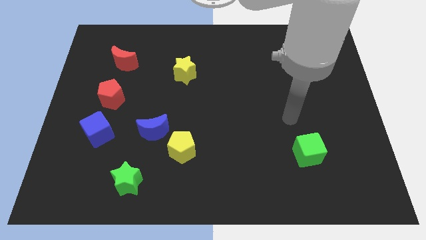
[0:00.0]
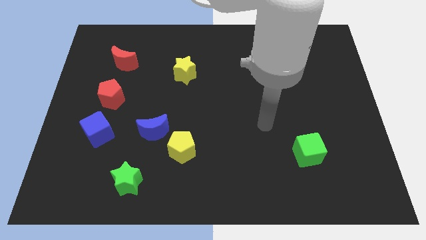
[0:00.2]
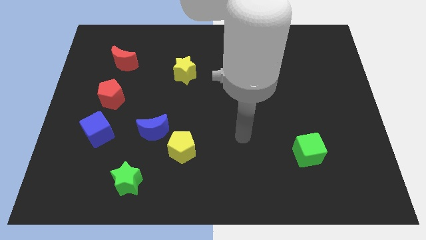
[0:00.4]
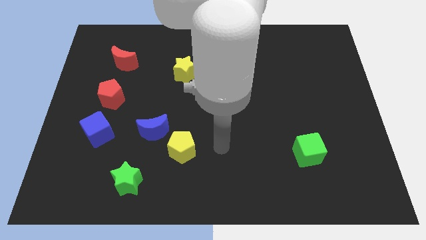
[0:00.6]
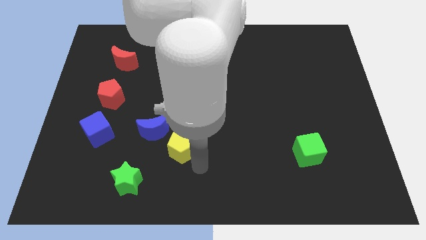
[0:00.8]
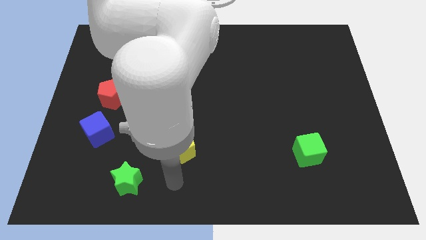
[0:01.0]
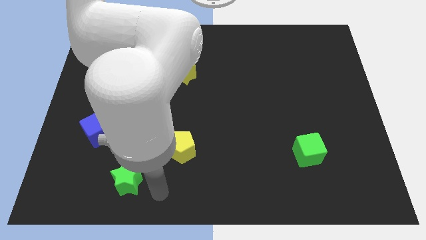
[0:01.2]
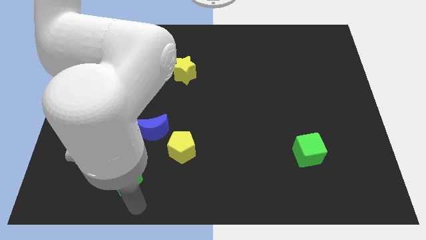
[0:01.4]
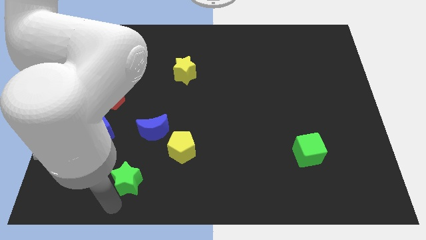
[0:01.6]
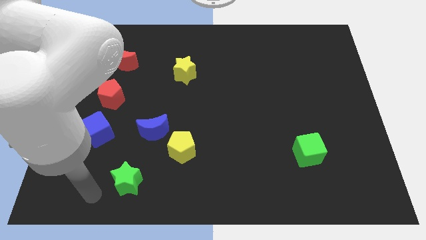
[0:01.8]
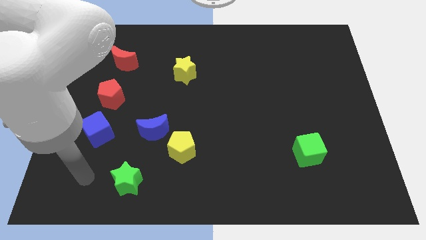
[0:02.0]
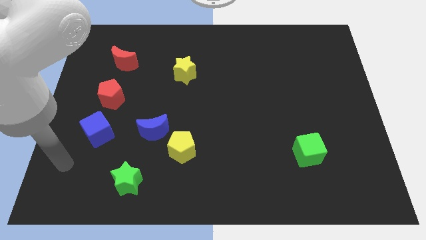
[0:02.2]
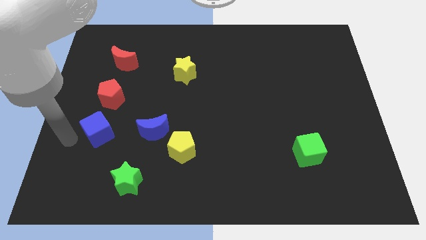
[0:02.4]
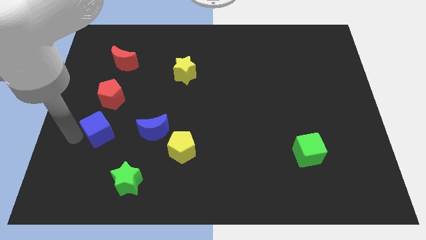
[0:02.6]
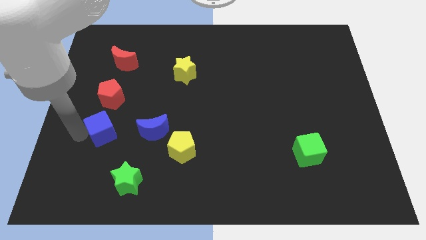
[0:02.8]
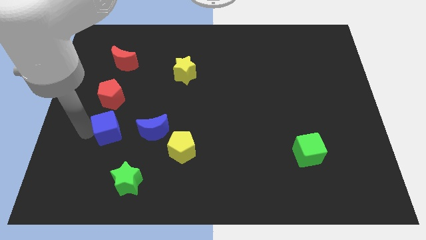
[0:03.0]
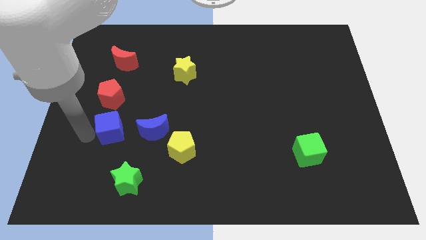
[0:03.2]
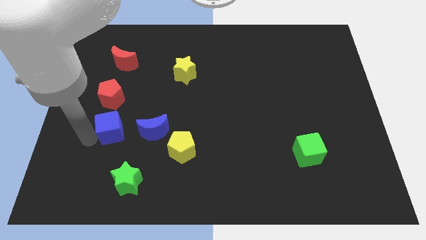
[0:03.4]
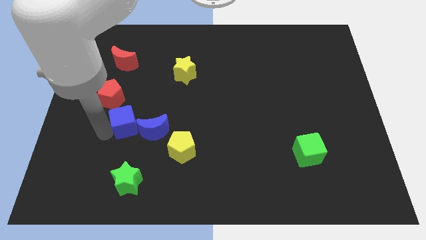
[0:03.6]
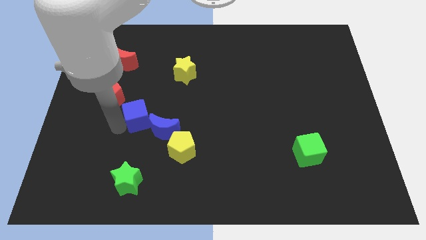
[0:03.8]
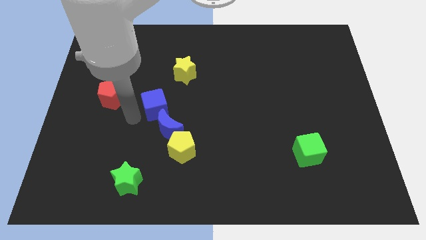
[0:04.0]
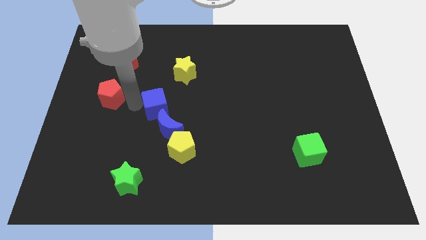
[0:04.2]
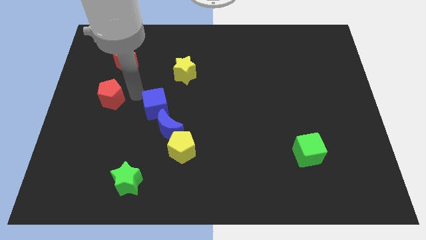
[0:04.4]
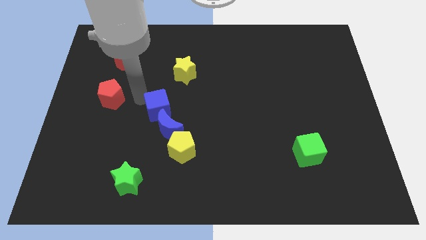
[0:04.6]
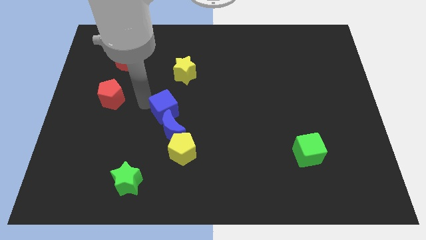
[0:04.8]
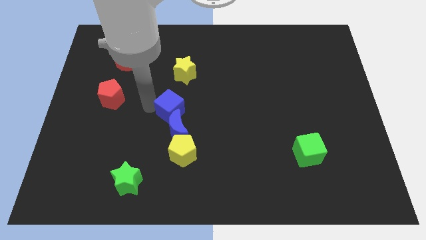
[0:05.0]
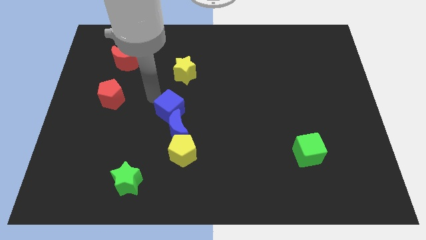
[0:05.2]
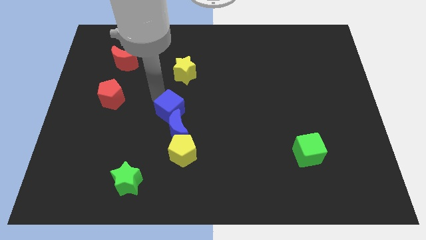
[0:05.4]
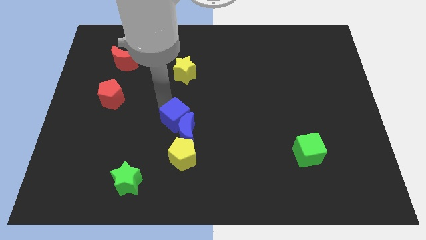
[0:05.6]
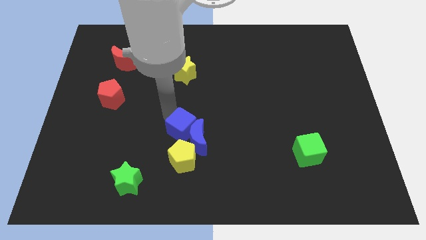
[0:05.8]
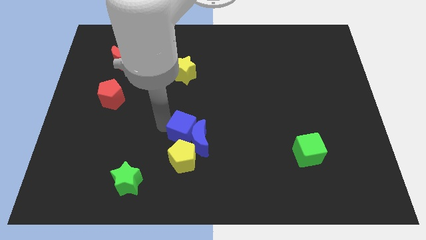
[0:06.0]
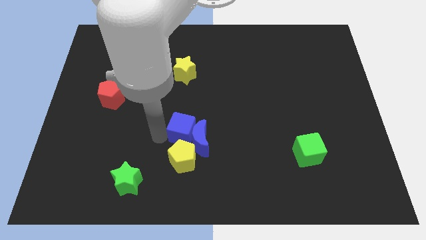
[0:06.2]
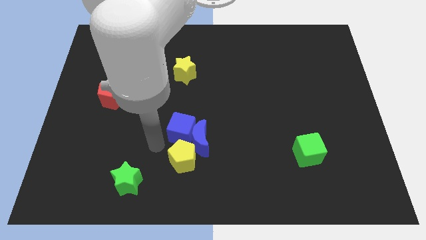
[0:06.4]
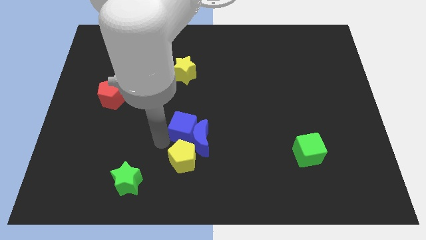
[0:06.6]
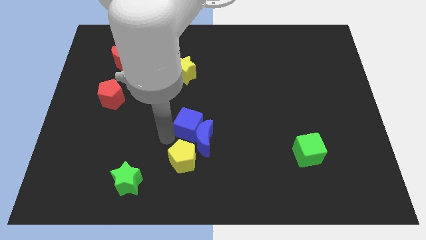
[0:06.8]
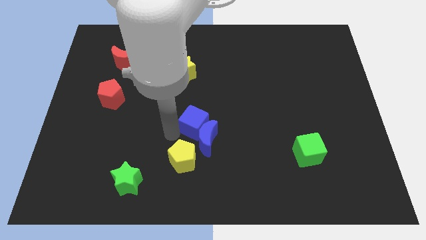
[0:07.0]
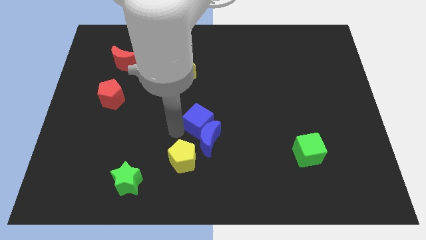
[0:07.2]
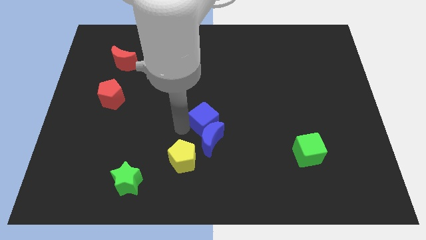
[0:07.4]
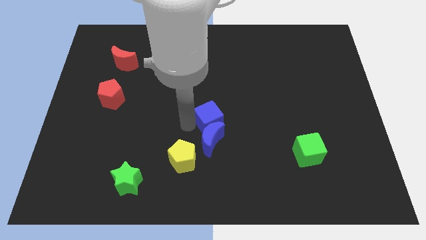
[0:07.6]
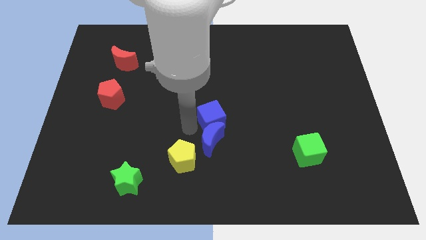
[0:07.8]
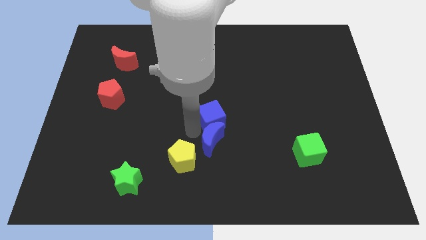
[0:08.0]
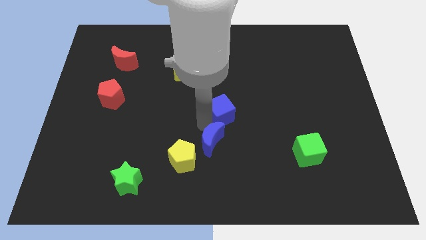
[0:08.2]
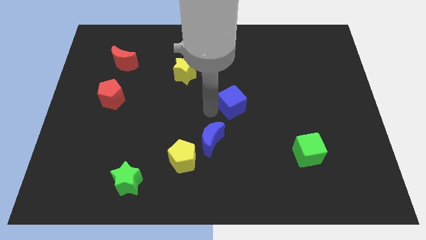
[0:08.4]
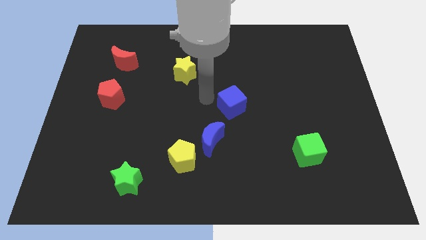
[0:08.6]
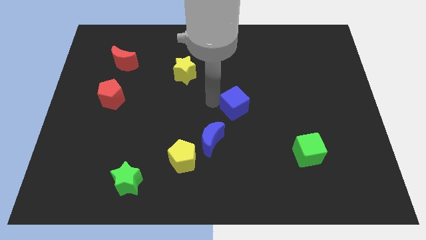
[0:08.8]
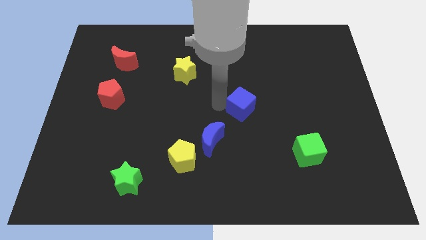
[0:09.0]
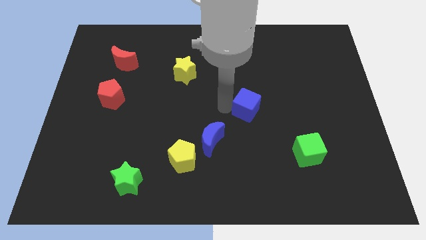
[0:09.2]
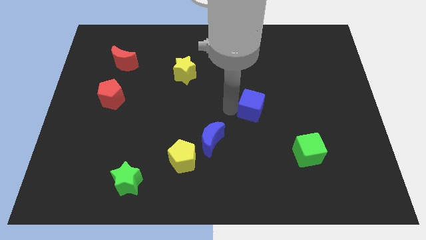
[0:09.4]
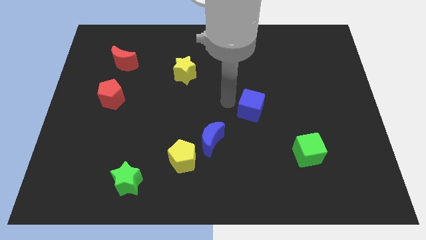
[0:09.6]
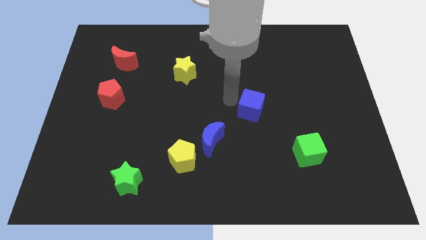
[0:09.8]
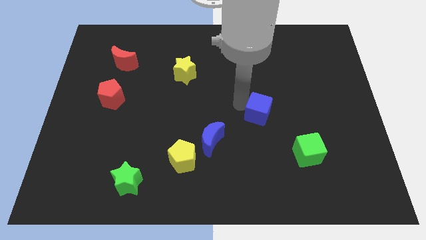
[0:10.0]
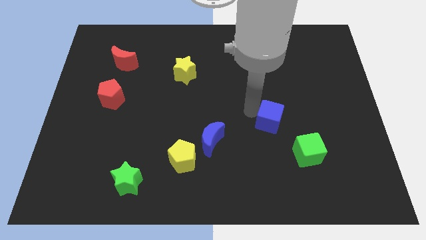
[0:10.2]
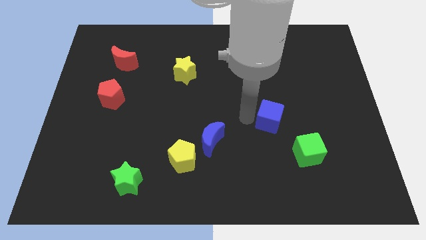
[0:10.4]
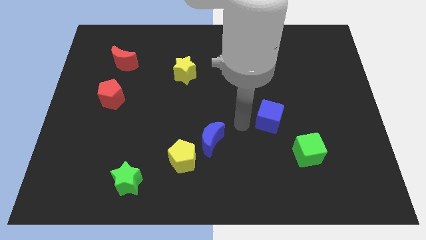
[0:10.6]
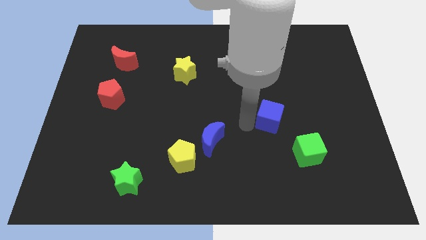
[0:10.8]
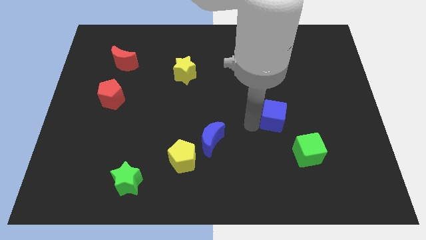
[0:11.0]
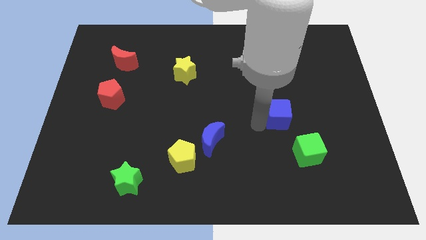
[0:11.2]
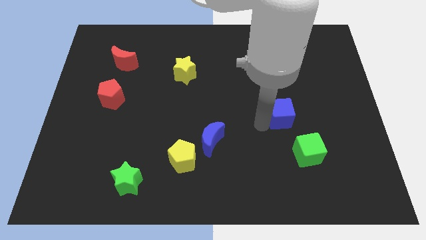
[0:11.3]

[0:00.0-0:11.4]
put the blue cube to the top side of the green cube

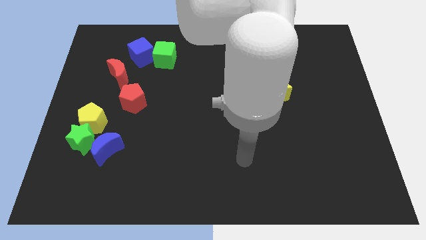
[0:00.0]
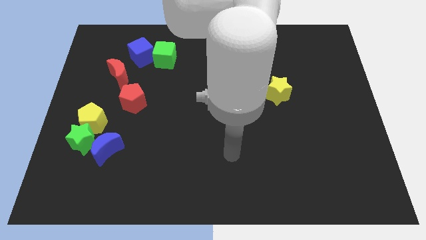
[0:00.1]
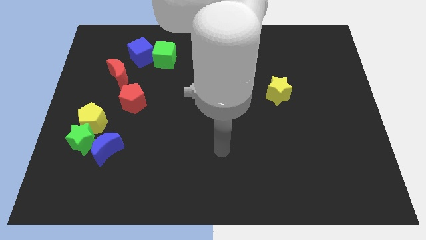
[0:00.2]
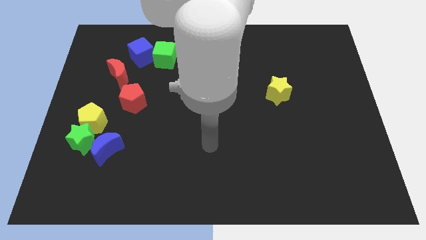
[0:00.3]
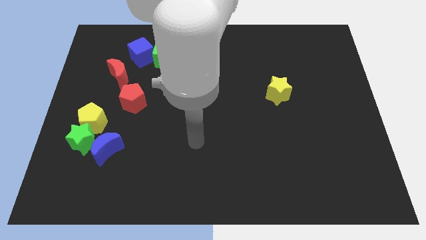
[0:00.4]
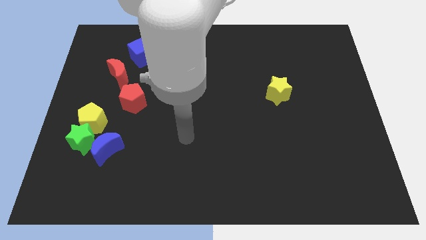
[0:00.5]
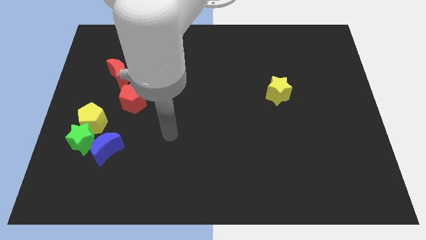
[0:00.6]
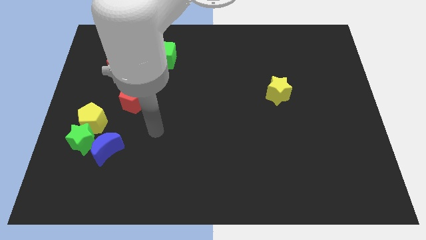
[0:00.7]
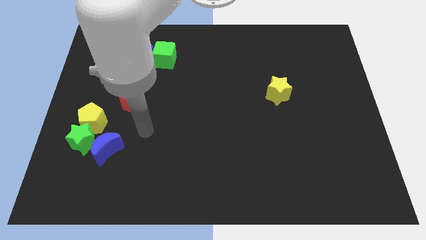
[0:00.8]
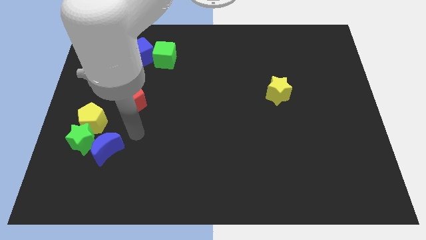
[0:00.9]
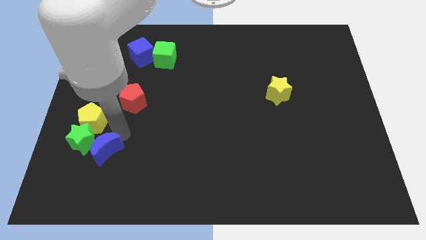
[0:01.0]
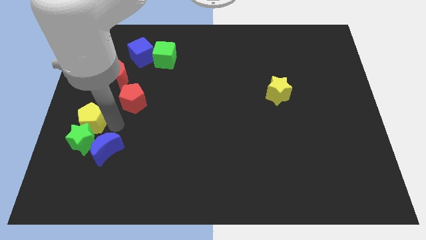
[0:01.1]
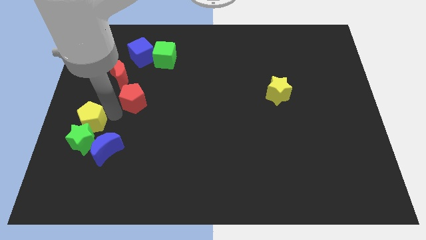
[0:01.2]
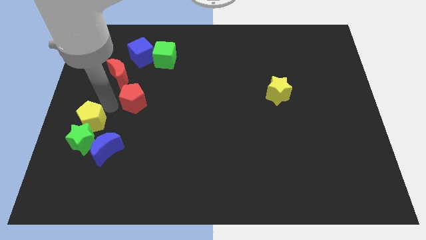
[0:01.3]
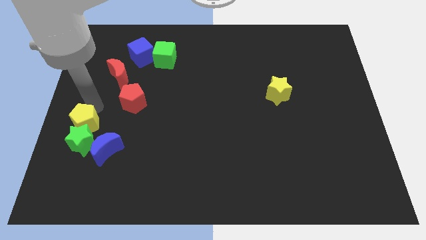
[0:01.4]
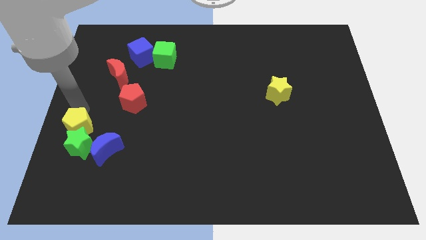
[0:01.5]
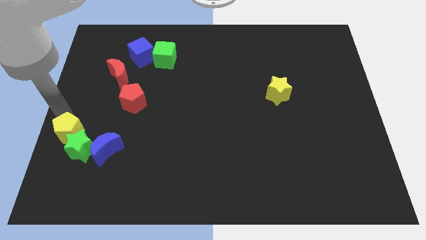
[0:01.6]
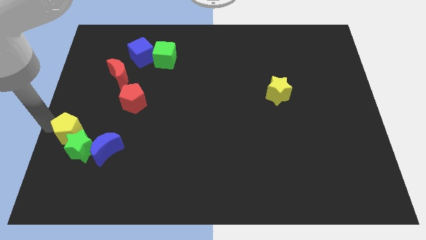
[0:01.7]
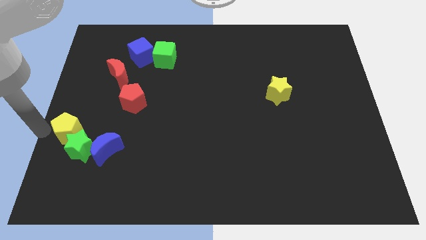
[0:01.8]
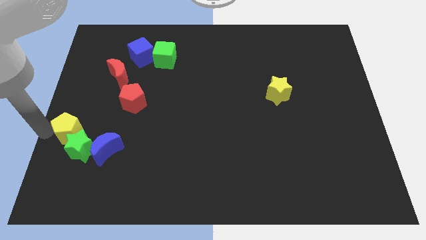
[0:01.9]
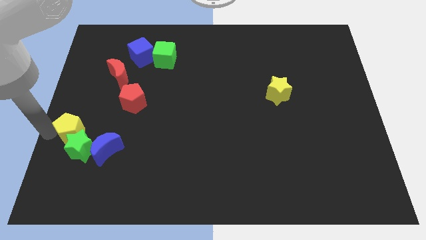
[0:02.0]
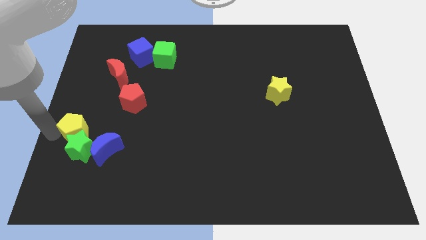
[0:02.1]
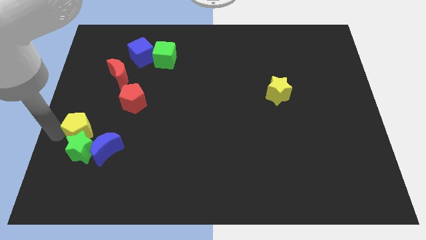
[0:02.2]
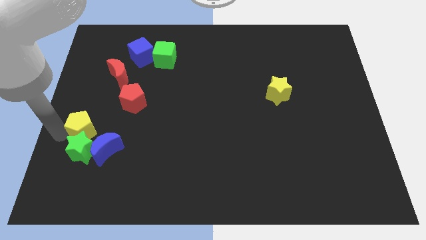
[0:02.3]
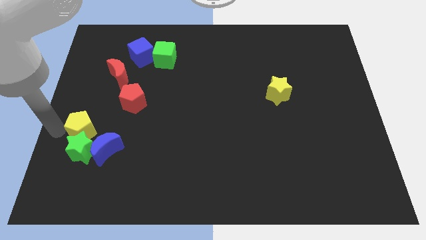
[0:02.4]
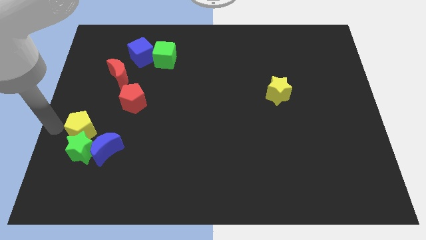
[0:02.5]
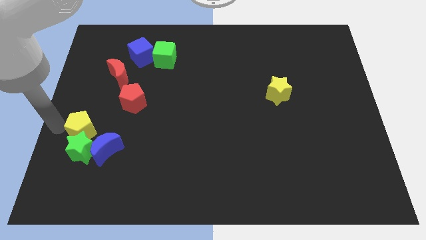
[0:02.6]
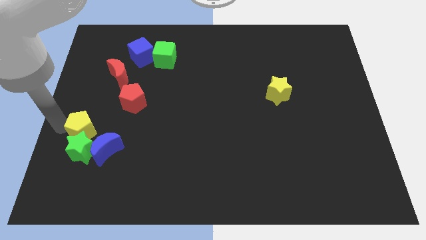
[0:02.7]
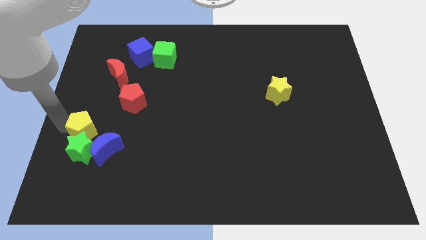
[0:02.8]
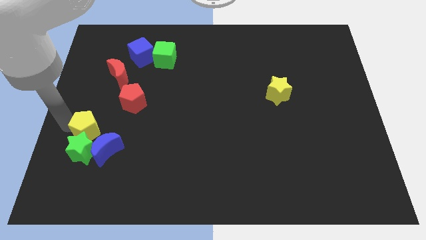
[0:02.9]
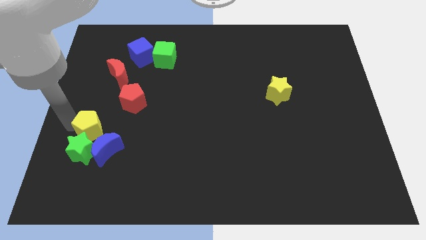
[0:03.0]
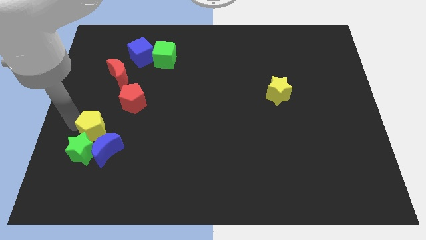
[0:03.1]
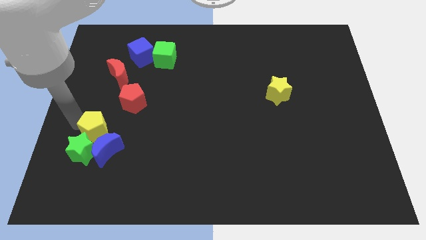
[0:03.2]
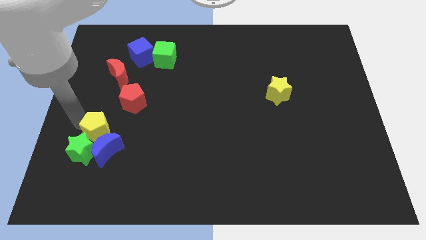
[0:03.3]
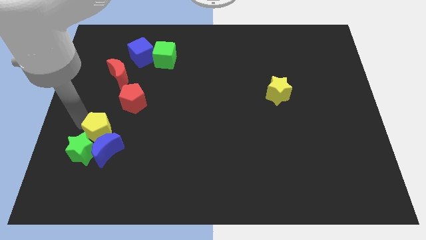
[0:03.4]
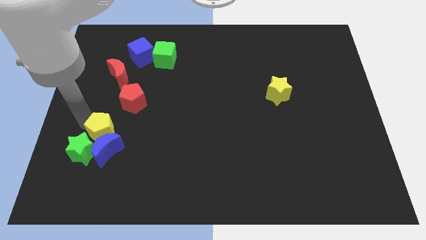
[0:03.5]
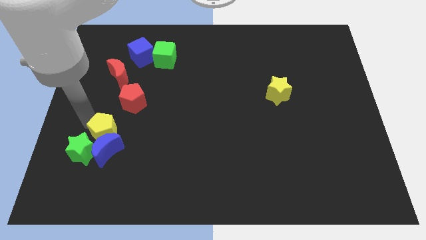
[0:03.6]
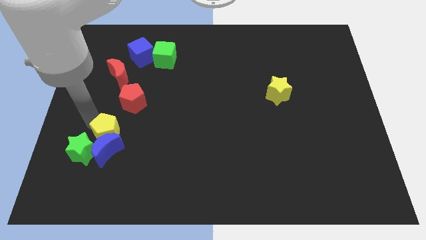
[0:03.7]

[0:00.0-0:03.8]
move the yellow pentagon to the bottom of the red pentagon
